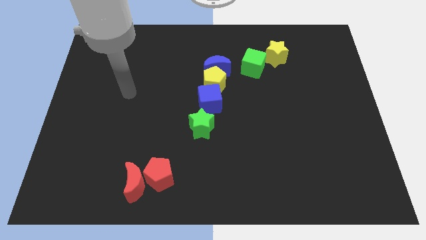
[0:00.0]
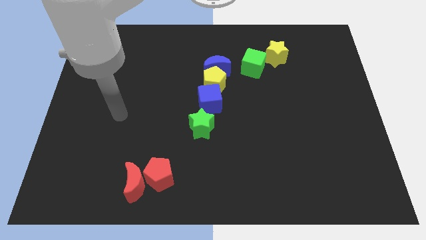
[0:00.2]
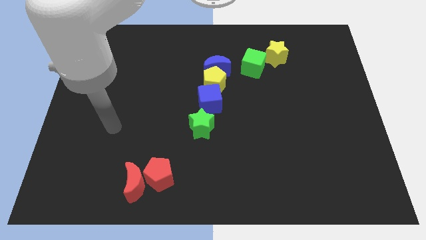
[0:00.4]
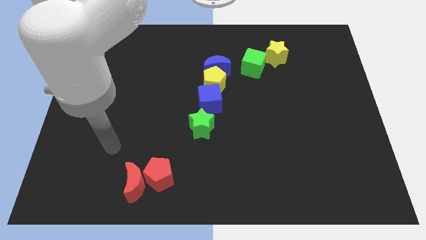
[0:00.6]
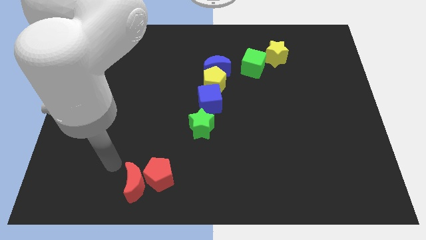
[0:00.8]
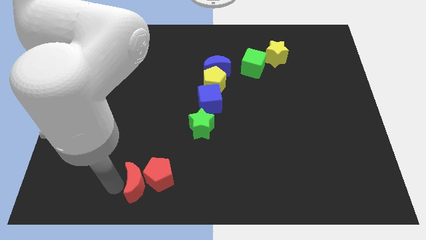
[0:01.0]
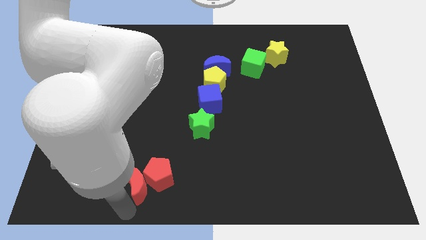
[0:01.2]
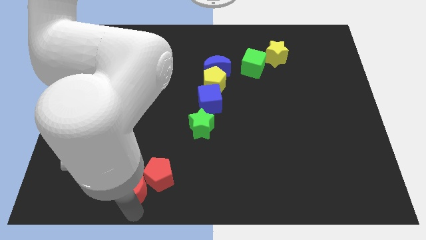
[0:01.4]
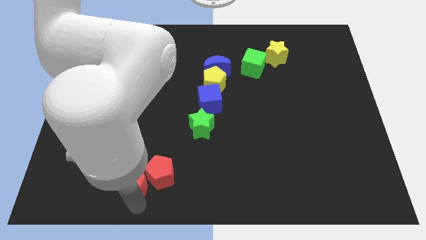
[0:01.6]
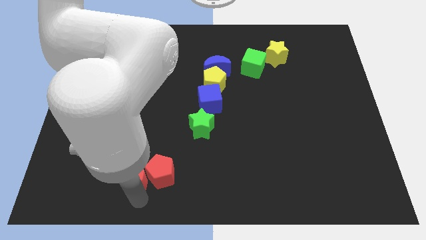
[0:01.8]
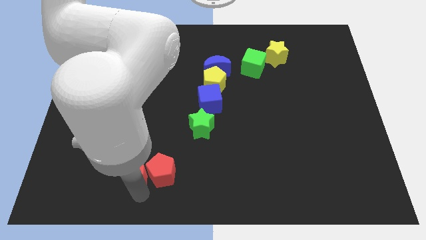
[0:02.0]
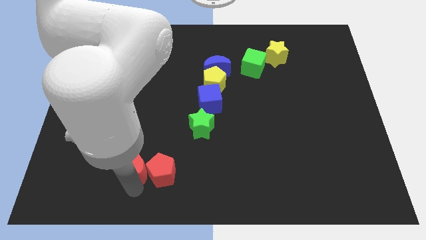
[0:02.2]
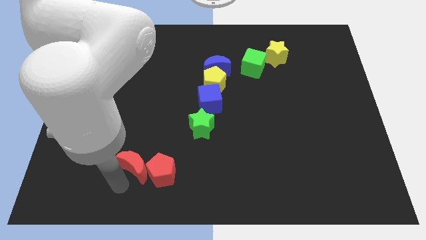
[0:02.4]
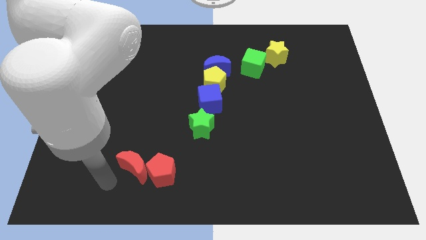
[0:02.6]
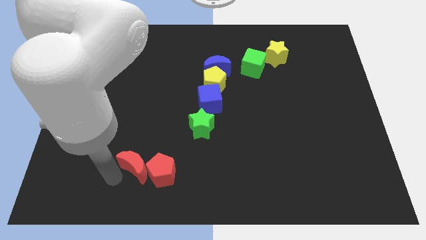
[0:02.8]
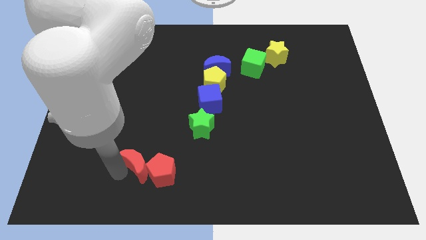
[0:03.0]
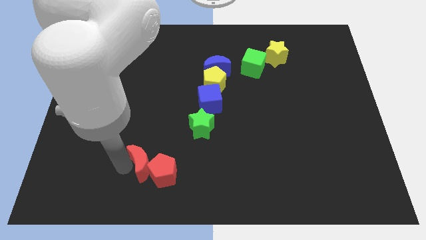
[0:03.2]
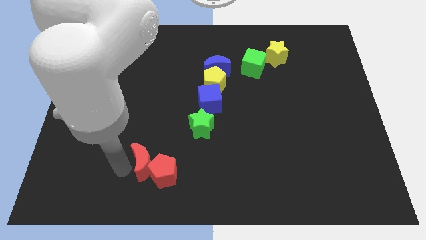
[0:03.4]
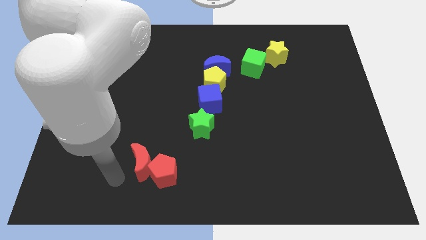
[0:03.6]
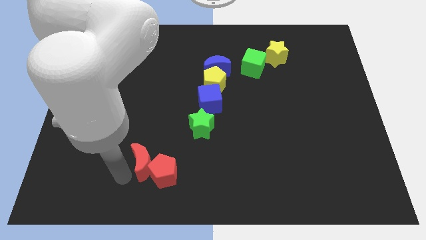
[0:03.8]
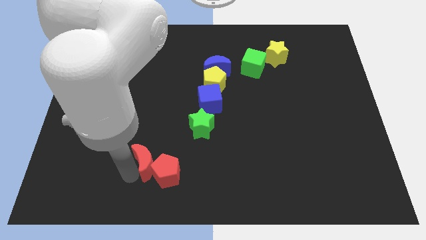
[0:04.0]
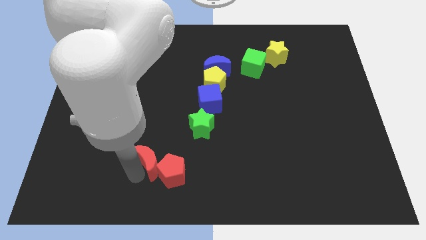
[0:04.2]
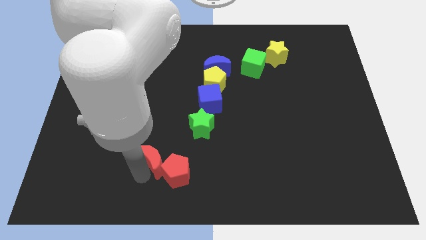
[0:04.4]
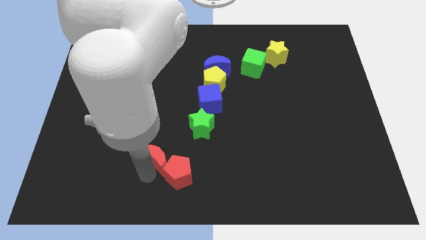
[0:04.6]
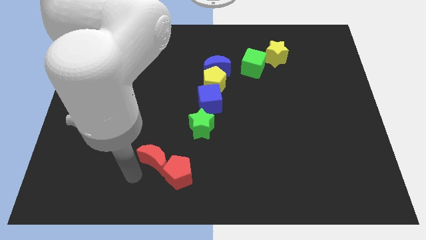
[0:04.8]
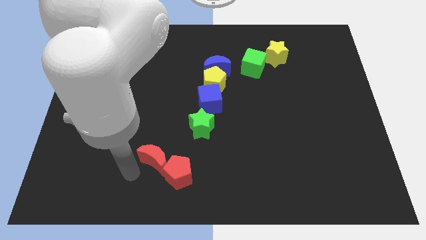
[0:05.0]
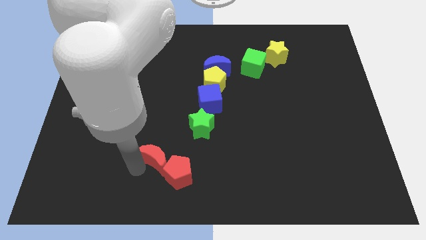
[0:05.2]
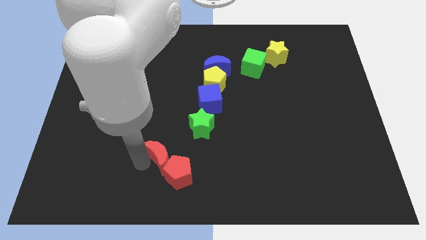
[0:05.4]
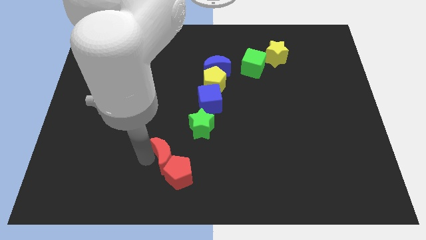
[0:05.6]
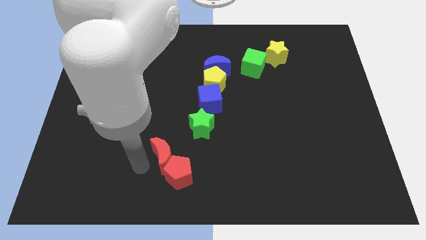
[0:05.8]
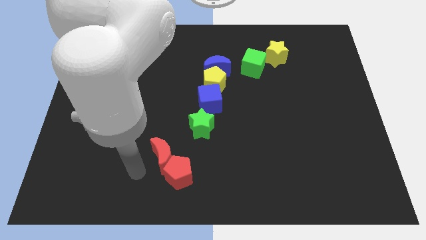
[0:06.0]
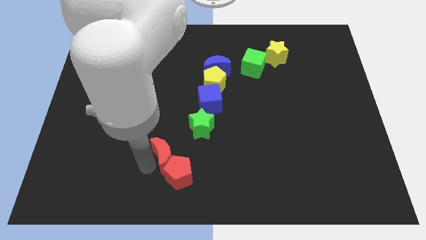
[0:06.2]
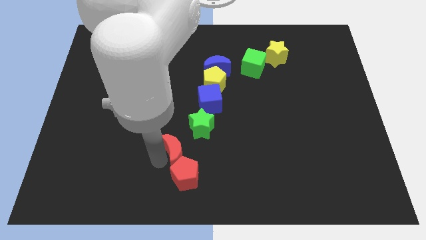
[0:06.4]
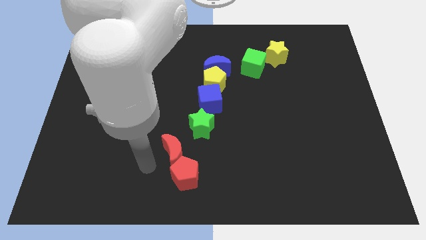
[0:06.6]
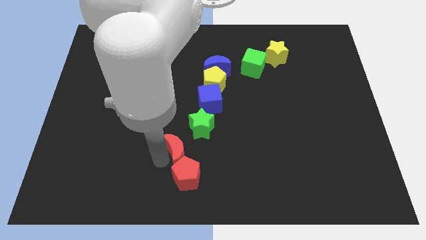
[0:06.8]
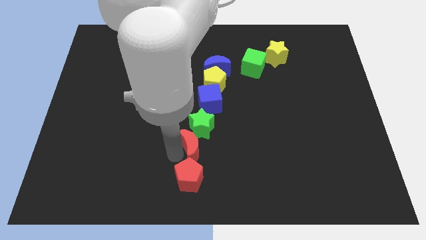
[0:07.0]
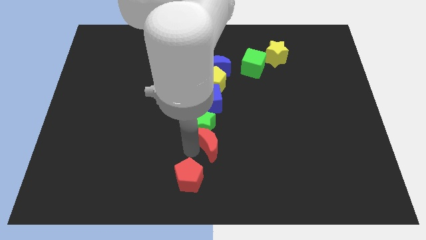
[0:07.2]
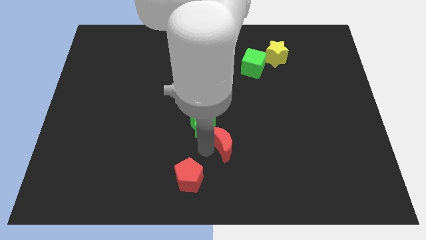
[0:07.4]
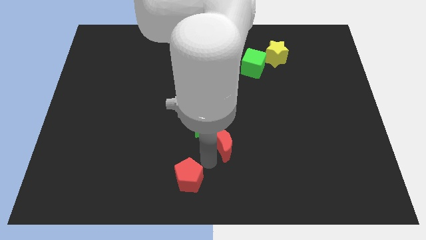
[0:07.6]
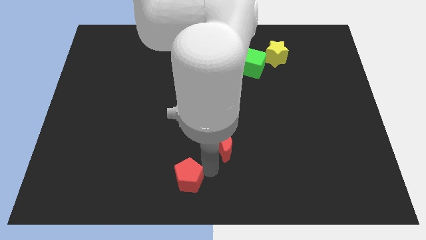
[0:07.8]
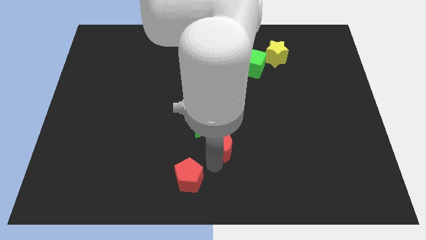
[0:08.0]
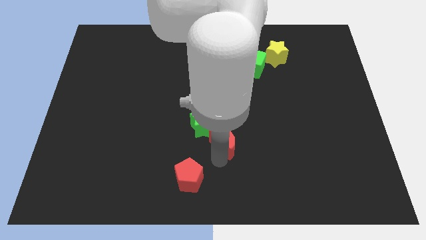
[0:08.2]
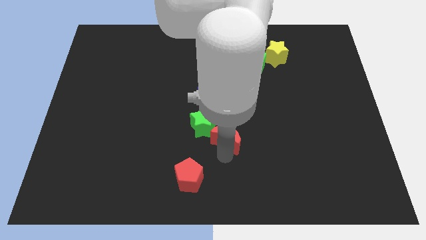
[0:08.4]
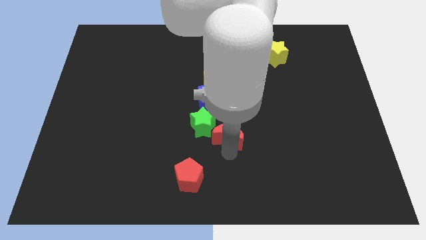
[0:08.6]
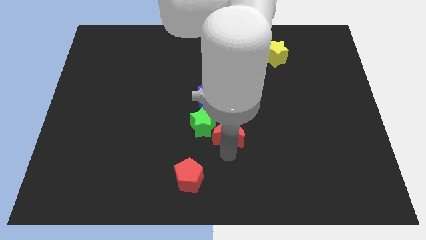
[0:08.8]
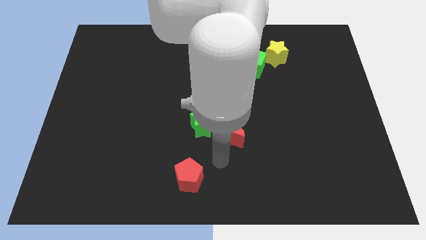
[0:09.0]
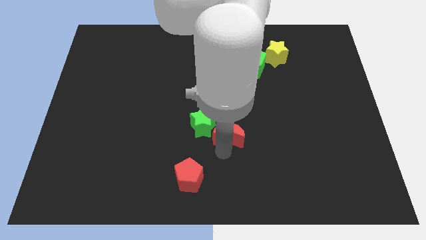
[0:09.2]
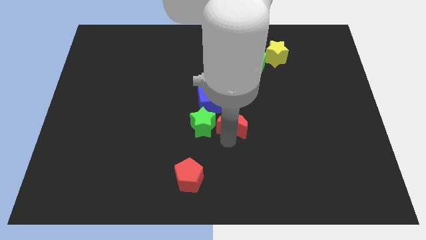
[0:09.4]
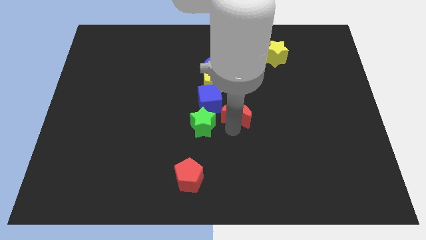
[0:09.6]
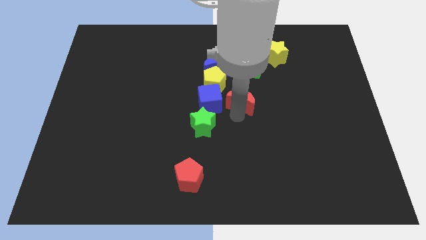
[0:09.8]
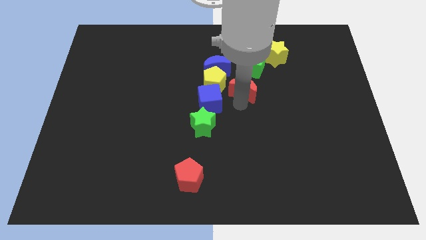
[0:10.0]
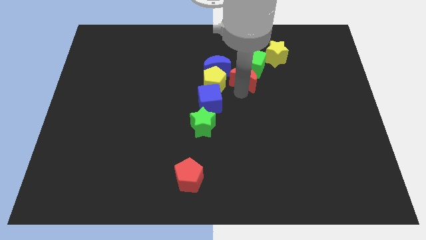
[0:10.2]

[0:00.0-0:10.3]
slide the red moon to the bottom left of the yellow star

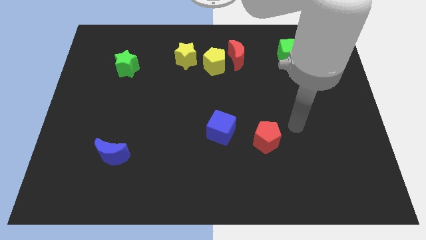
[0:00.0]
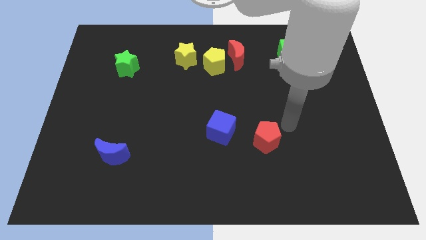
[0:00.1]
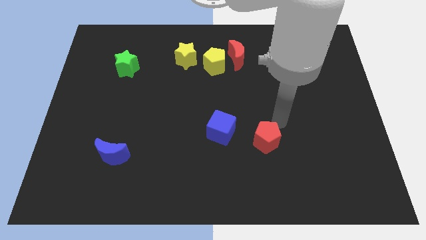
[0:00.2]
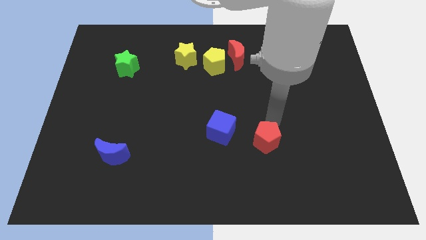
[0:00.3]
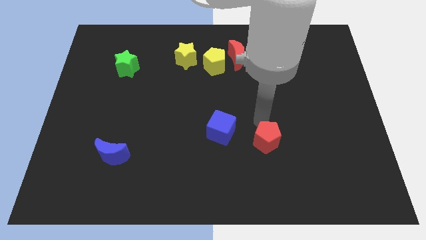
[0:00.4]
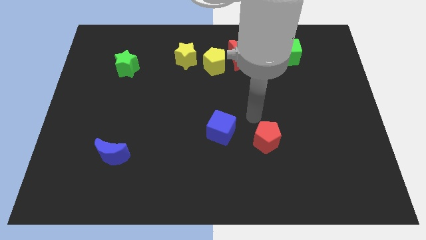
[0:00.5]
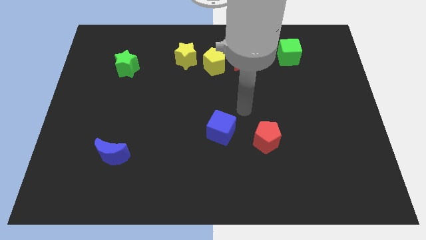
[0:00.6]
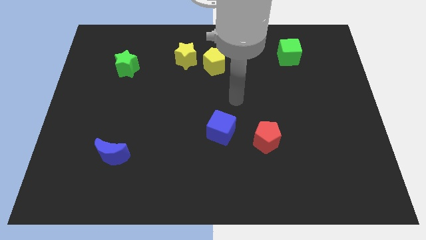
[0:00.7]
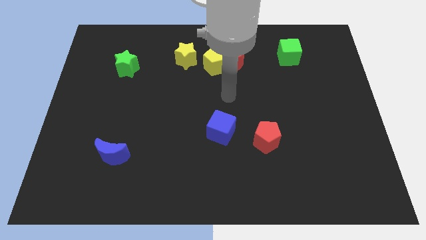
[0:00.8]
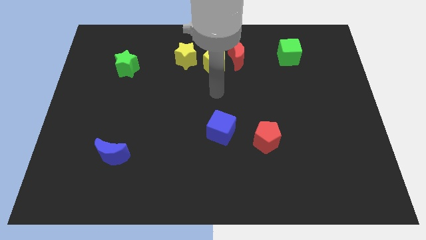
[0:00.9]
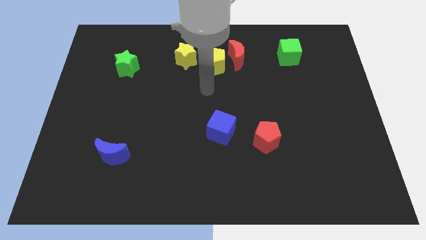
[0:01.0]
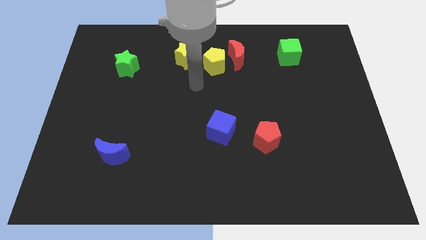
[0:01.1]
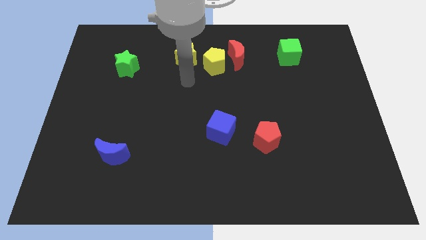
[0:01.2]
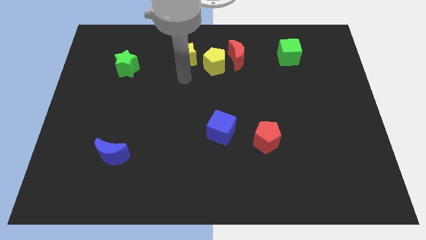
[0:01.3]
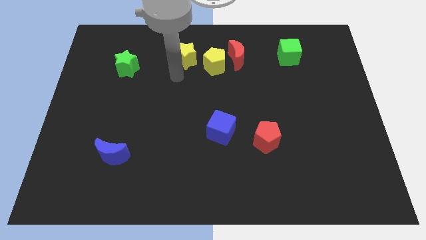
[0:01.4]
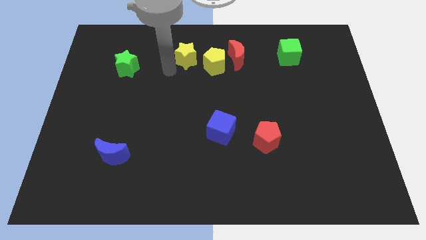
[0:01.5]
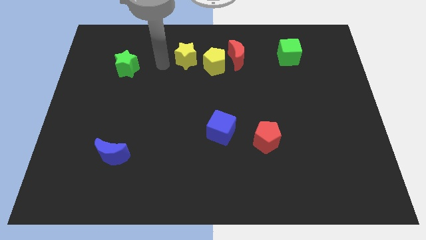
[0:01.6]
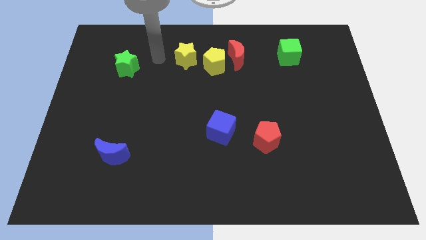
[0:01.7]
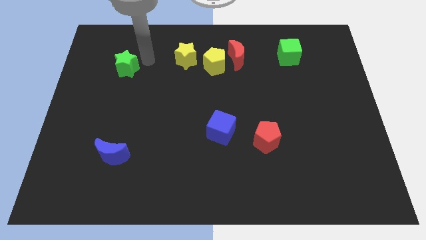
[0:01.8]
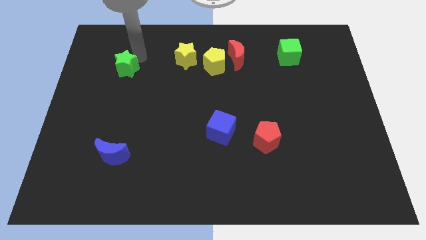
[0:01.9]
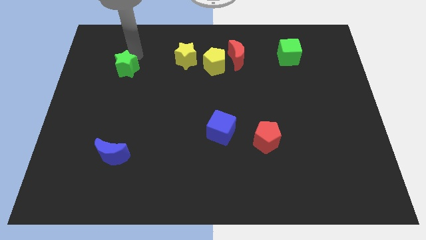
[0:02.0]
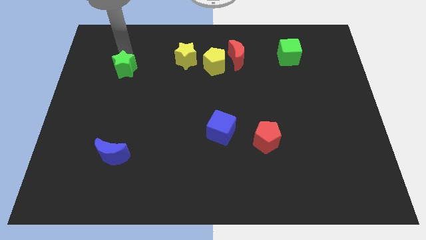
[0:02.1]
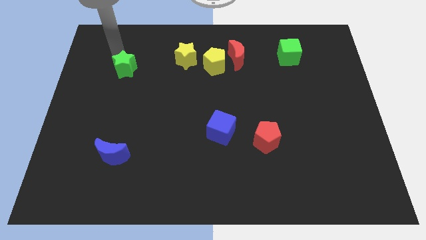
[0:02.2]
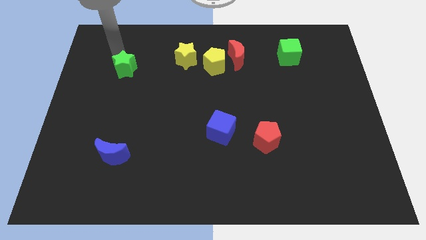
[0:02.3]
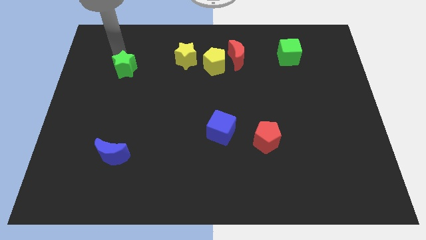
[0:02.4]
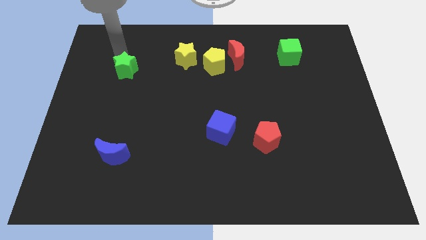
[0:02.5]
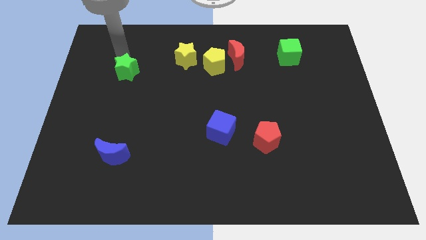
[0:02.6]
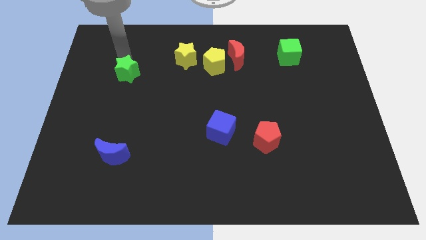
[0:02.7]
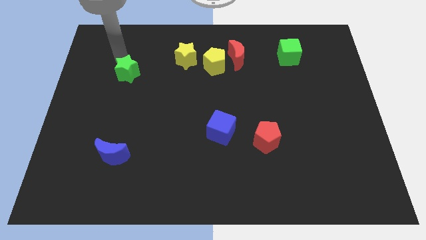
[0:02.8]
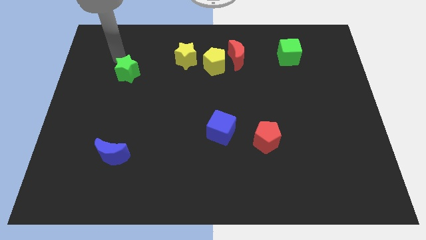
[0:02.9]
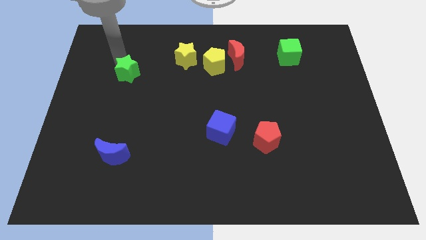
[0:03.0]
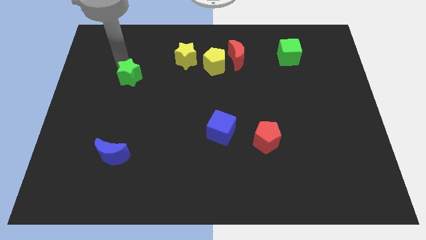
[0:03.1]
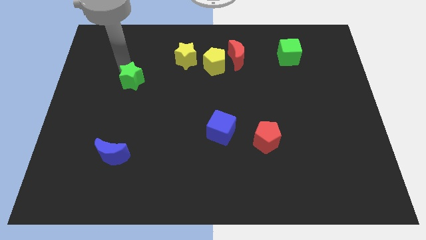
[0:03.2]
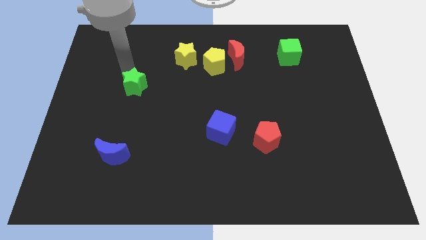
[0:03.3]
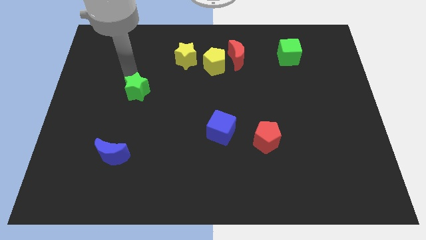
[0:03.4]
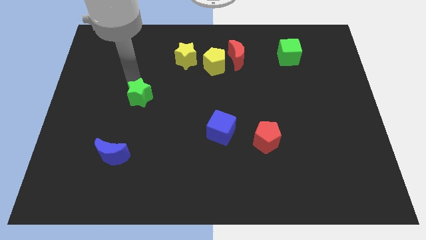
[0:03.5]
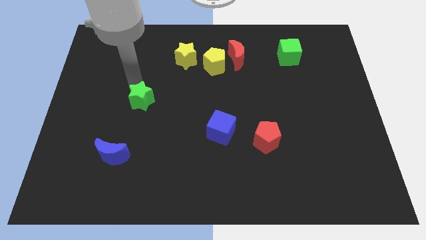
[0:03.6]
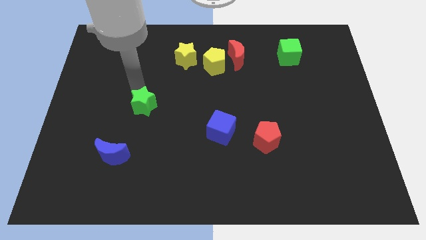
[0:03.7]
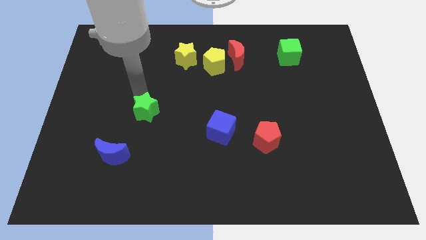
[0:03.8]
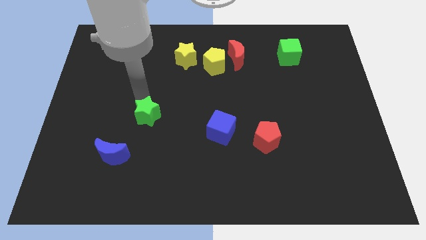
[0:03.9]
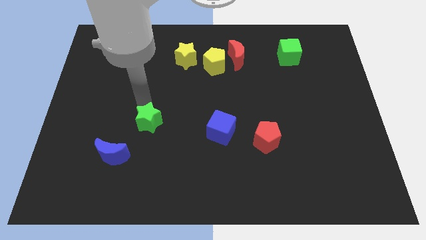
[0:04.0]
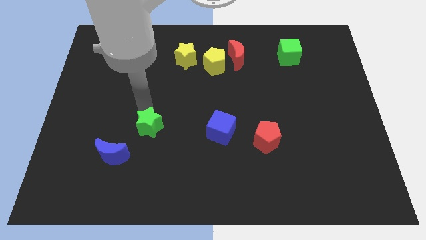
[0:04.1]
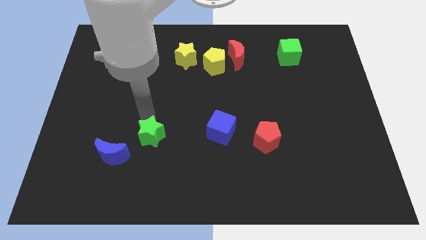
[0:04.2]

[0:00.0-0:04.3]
push the green star to the right of the blue moon
